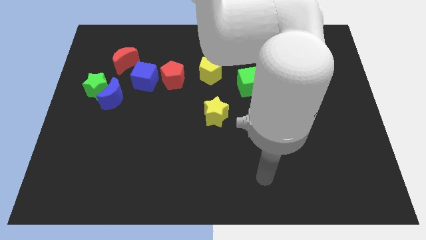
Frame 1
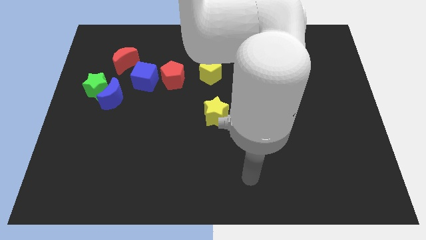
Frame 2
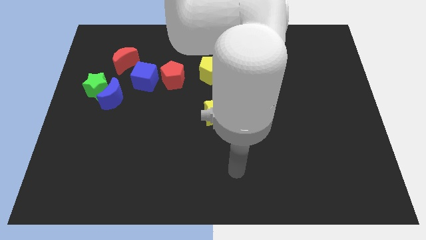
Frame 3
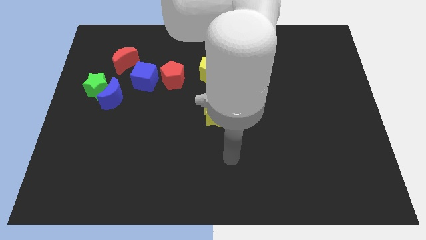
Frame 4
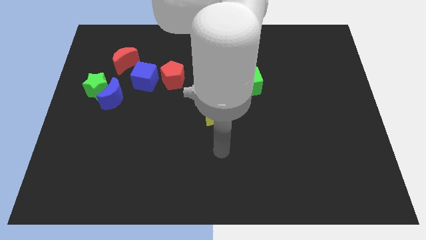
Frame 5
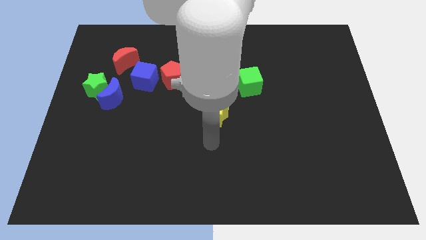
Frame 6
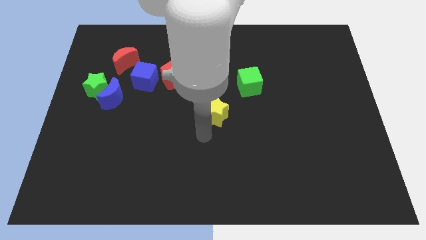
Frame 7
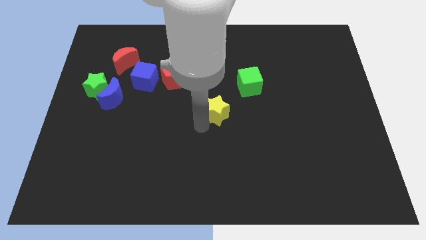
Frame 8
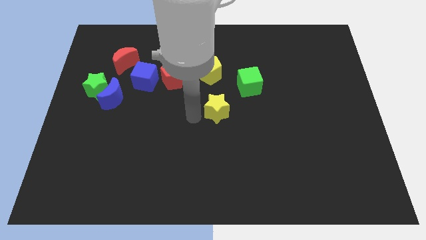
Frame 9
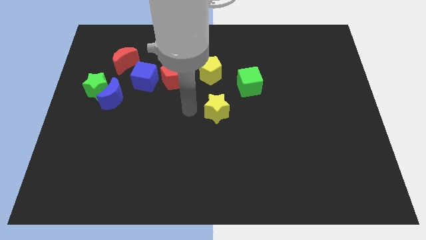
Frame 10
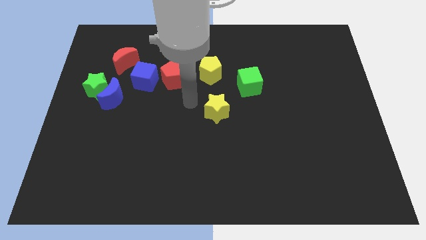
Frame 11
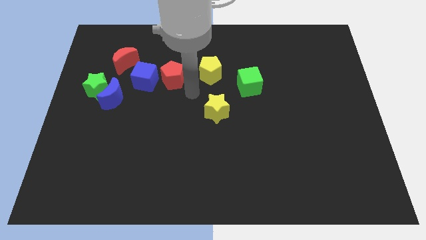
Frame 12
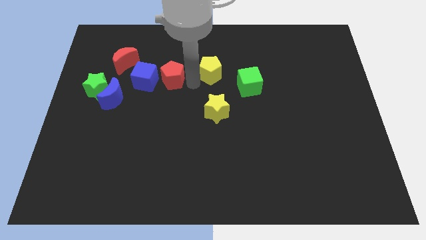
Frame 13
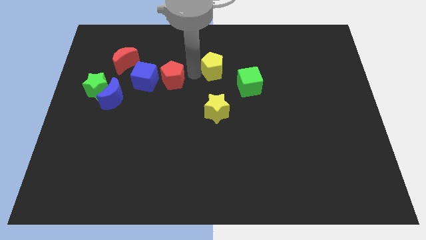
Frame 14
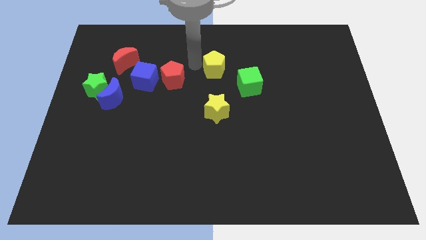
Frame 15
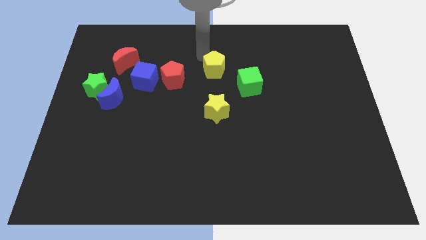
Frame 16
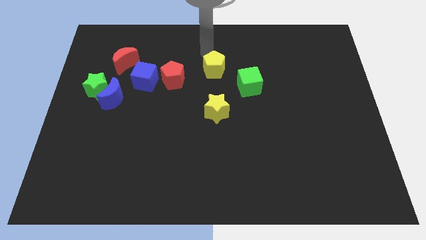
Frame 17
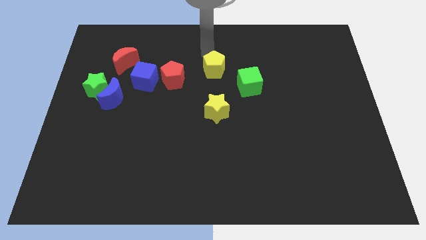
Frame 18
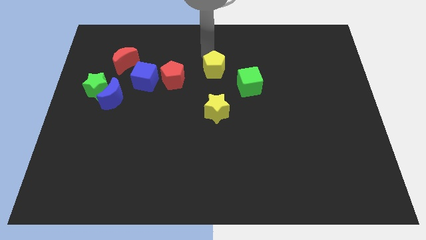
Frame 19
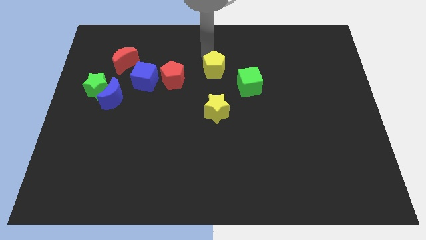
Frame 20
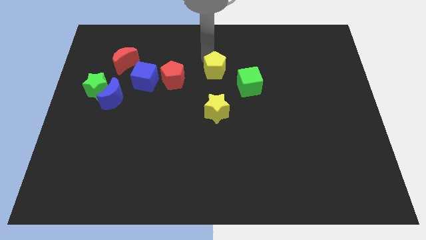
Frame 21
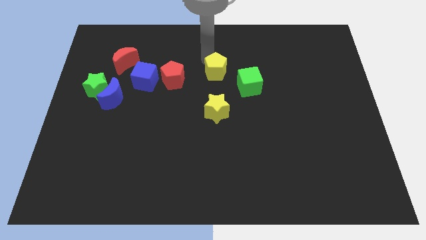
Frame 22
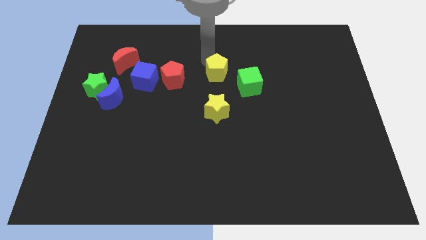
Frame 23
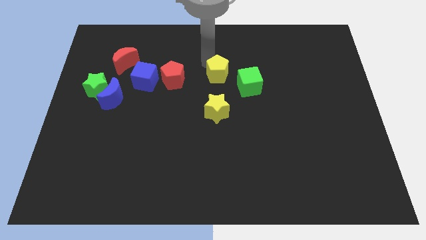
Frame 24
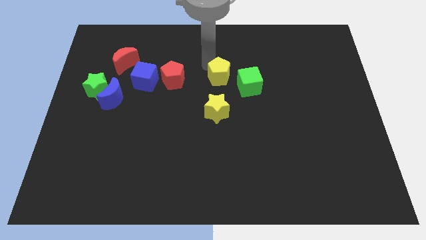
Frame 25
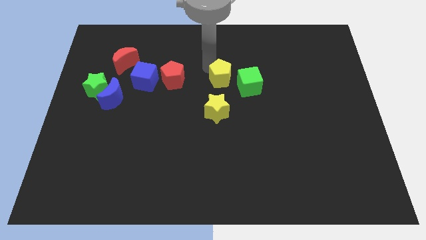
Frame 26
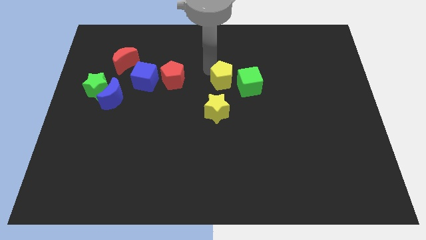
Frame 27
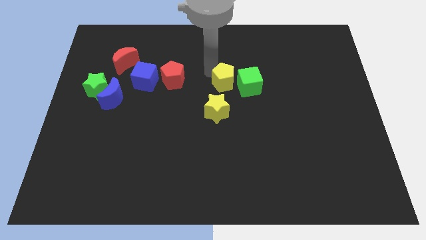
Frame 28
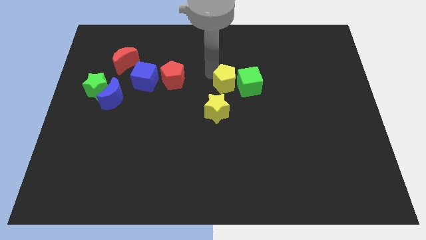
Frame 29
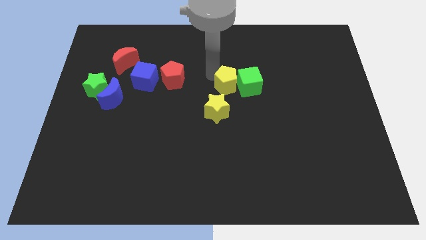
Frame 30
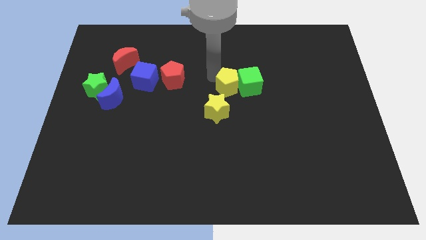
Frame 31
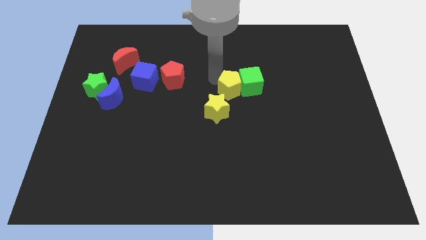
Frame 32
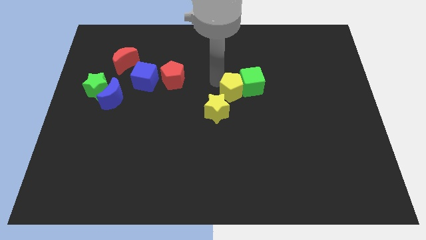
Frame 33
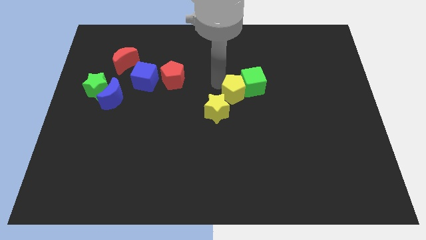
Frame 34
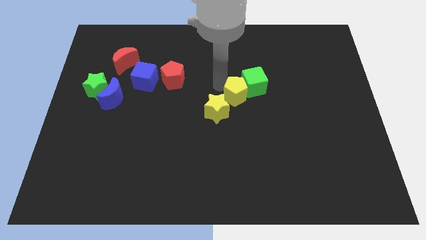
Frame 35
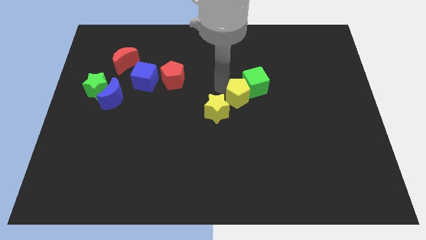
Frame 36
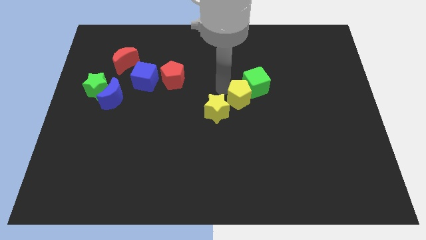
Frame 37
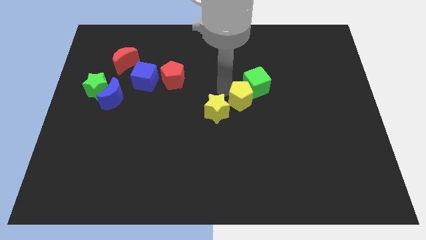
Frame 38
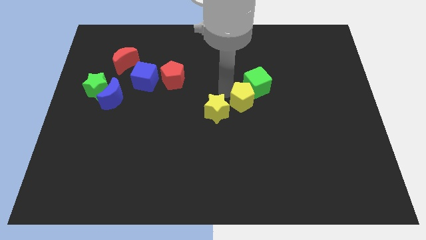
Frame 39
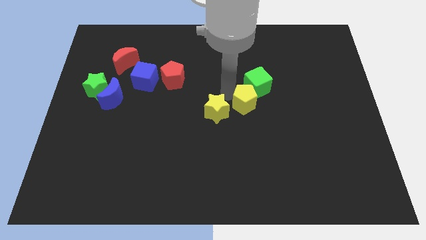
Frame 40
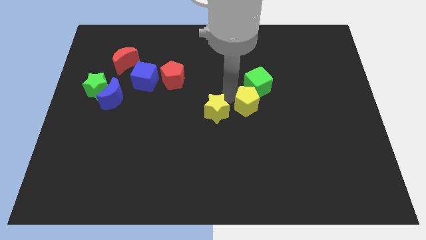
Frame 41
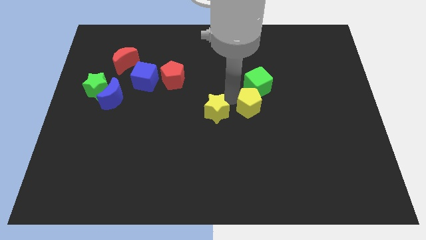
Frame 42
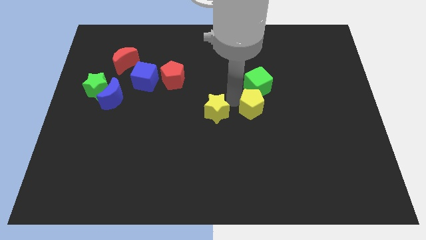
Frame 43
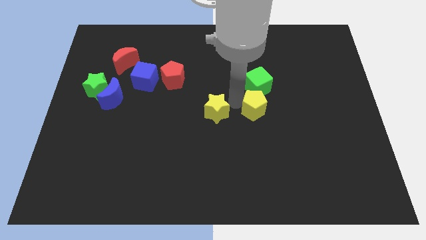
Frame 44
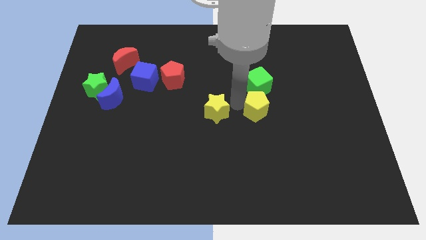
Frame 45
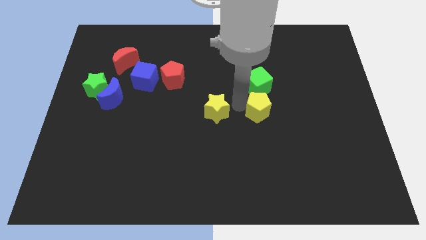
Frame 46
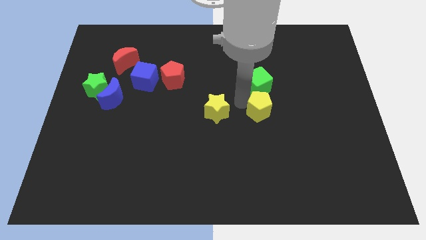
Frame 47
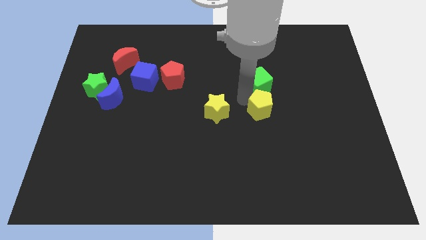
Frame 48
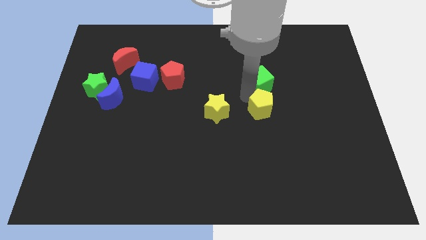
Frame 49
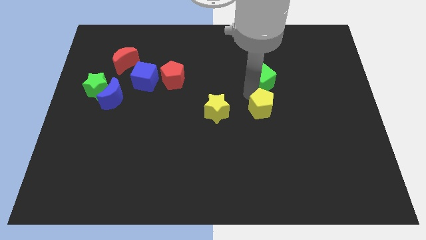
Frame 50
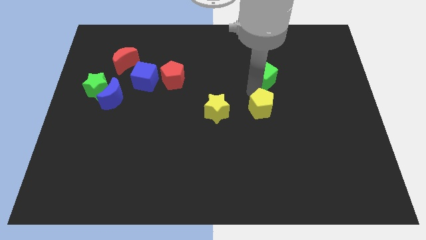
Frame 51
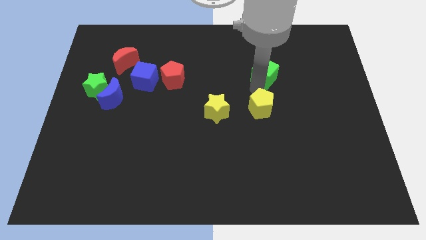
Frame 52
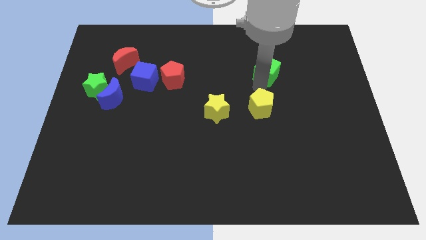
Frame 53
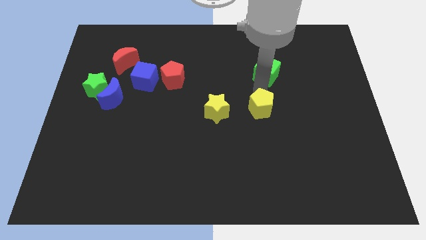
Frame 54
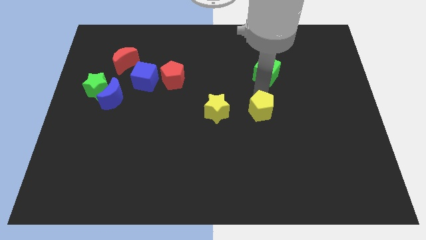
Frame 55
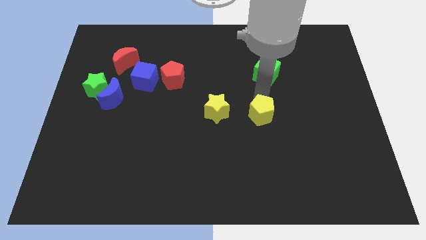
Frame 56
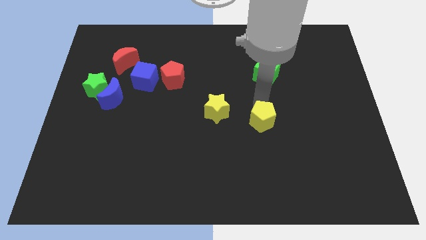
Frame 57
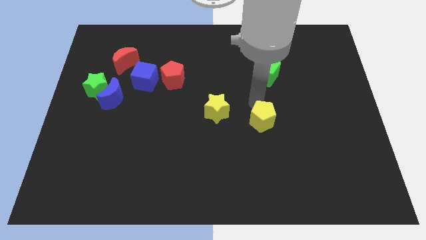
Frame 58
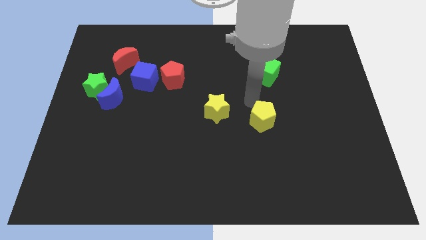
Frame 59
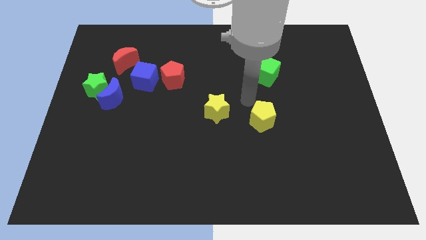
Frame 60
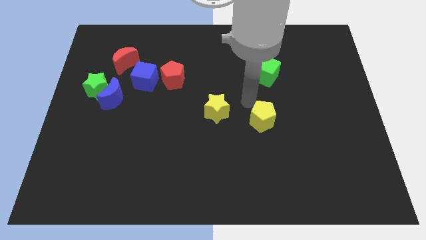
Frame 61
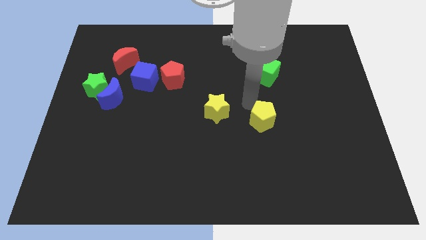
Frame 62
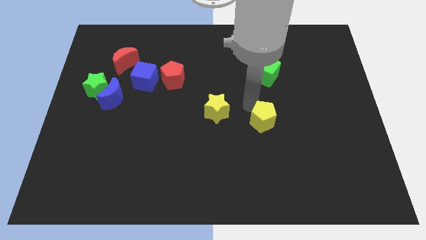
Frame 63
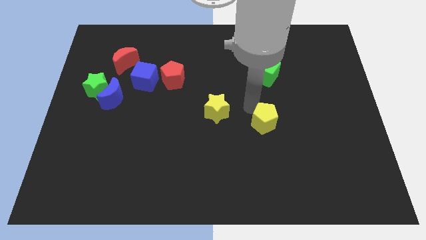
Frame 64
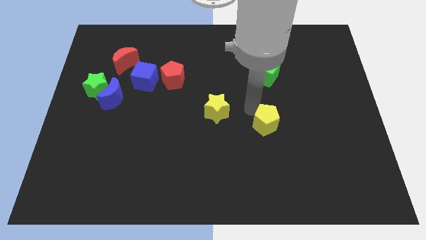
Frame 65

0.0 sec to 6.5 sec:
slide the yellow pentagon diagonally down and right

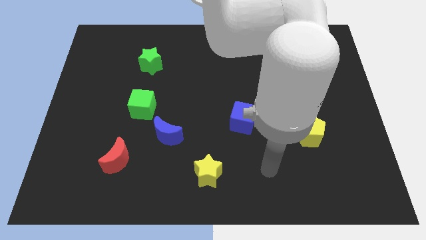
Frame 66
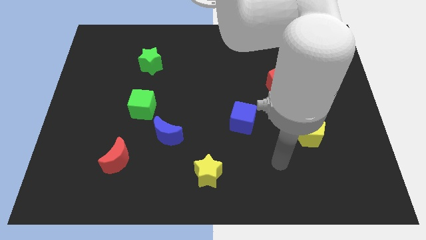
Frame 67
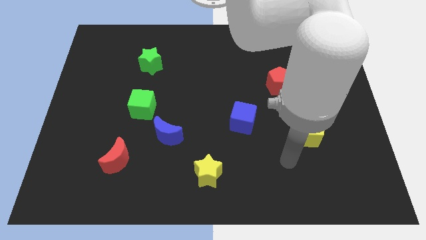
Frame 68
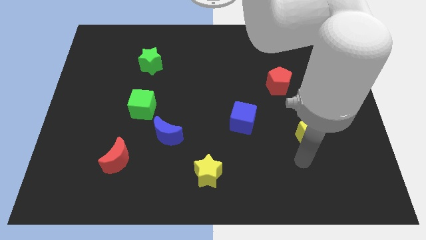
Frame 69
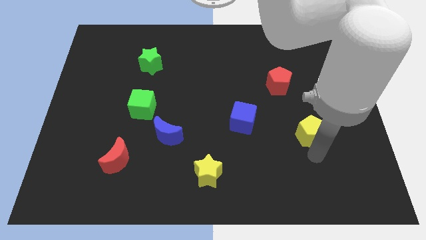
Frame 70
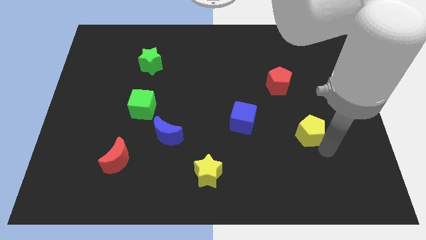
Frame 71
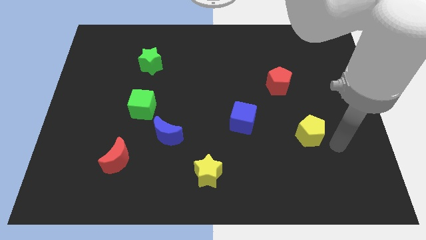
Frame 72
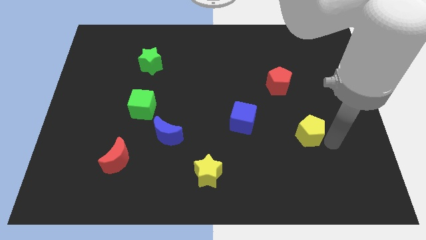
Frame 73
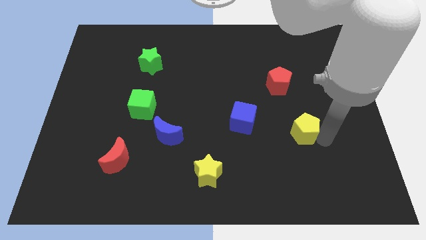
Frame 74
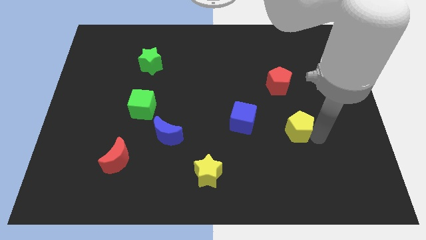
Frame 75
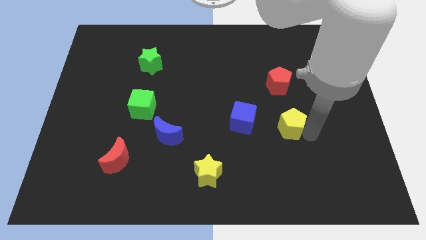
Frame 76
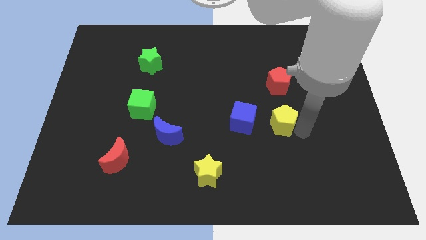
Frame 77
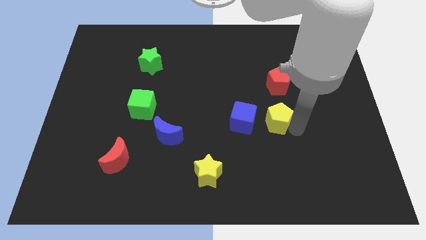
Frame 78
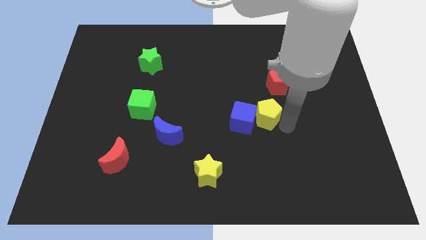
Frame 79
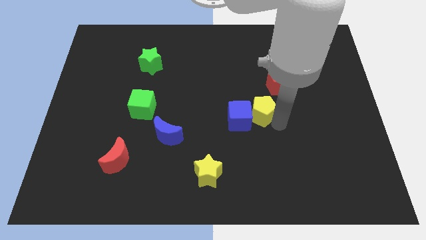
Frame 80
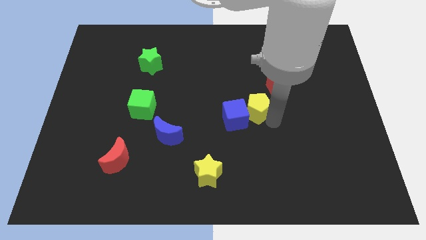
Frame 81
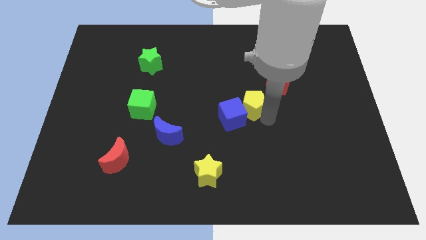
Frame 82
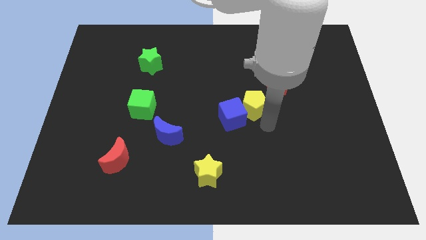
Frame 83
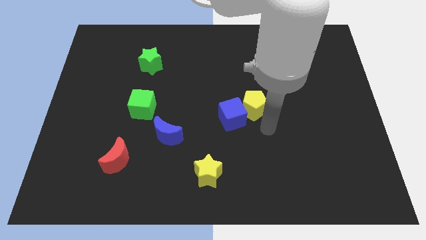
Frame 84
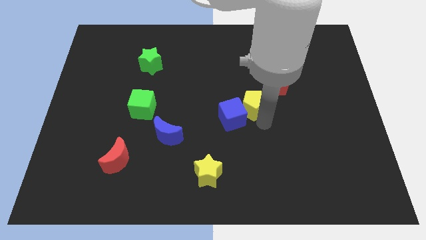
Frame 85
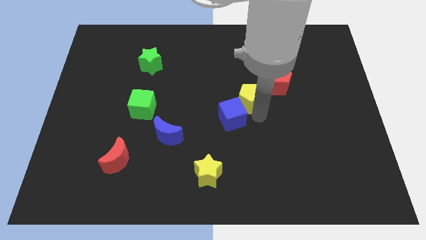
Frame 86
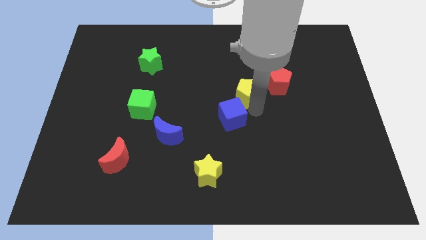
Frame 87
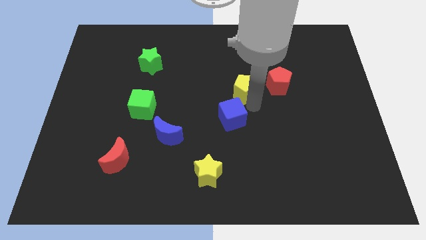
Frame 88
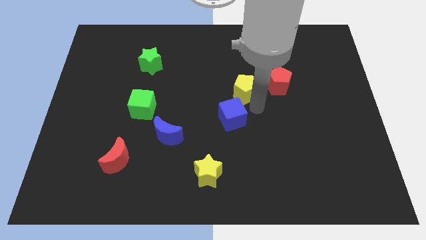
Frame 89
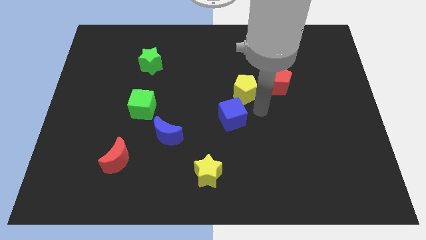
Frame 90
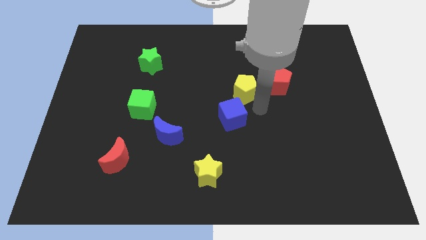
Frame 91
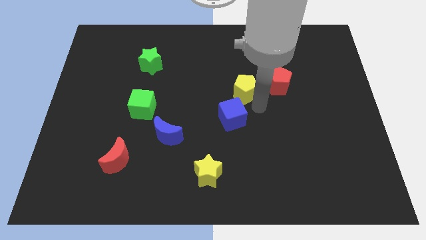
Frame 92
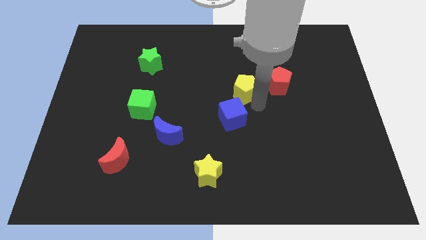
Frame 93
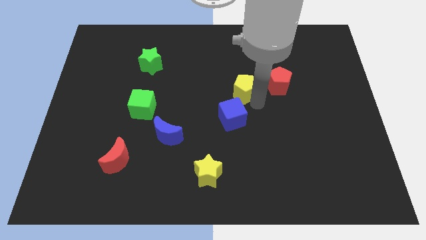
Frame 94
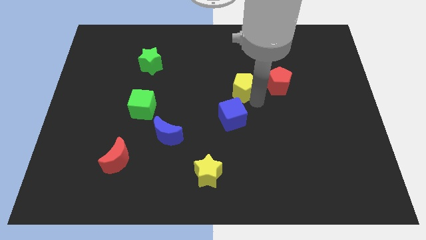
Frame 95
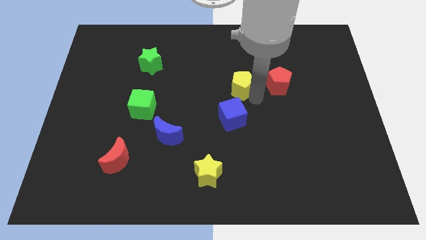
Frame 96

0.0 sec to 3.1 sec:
move the yellow pentagon diagonally upwards and left
